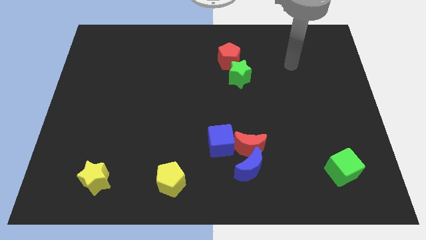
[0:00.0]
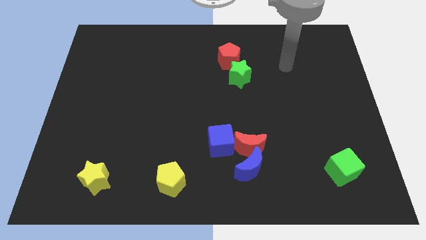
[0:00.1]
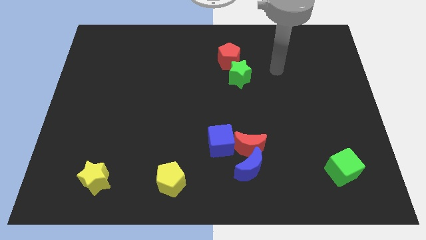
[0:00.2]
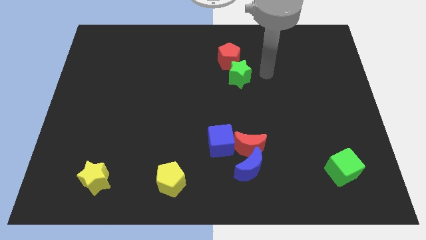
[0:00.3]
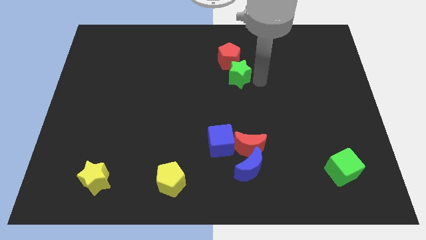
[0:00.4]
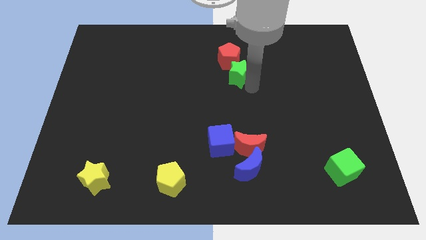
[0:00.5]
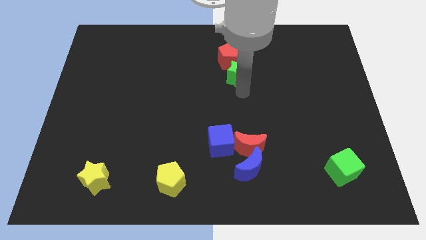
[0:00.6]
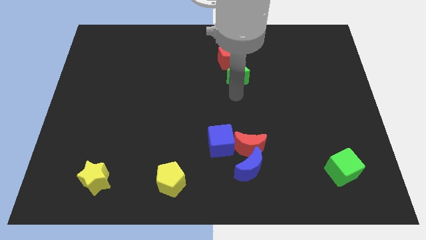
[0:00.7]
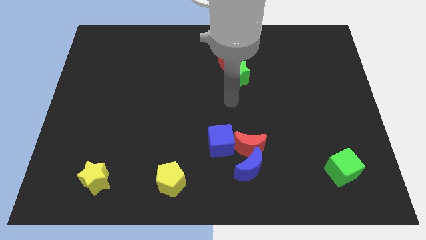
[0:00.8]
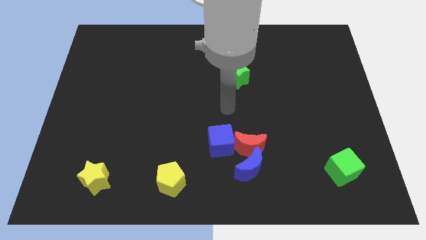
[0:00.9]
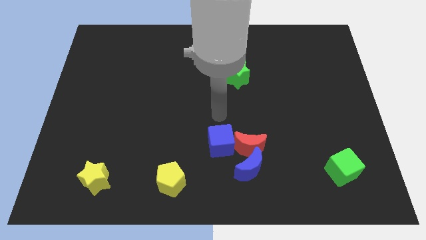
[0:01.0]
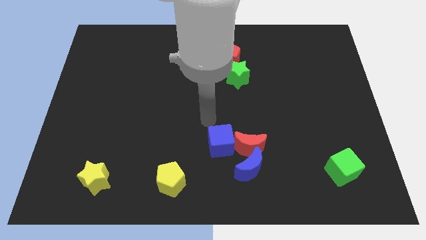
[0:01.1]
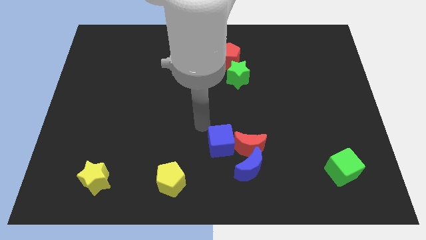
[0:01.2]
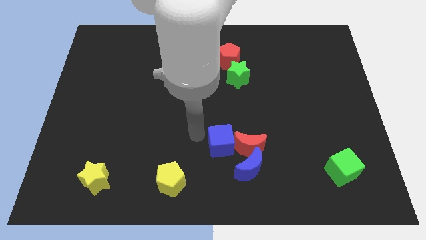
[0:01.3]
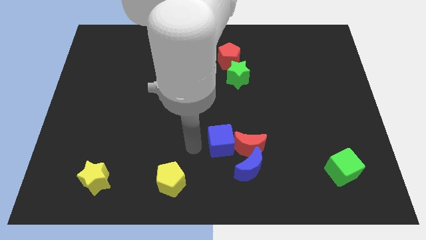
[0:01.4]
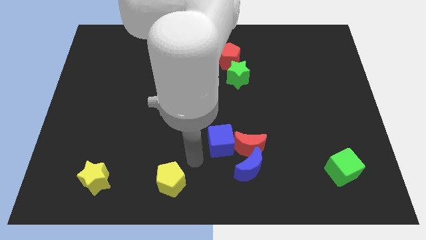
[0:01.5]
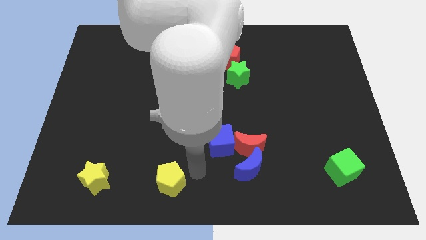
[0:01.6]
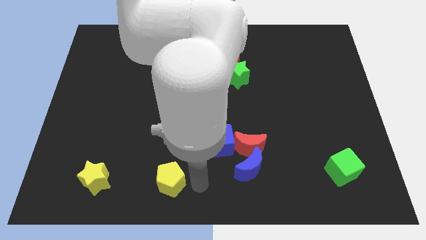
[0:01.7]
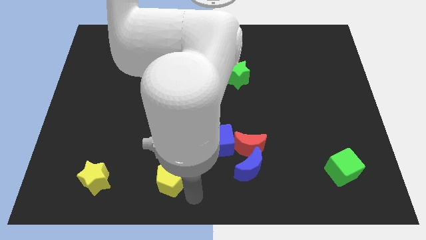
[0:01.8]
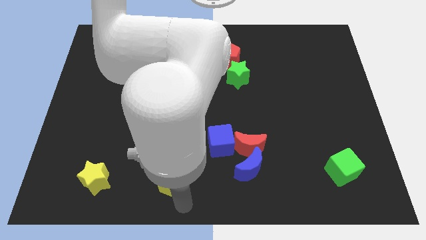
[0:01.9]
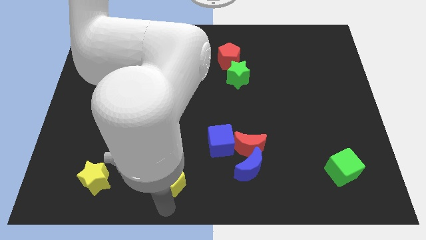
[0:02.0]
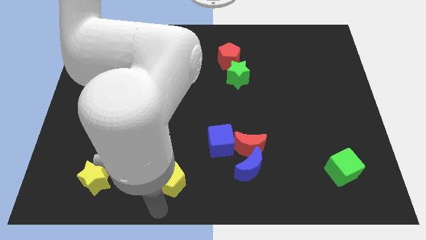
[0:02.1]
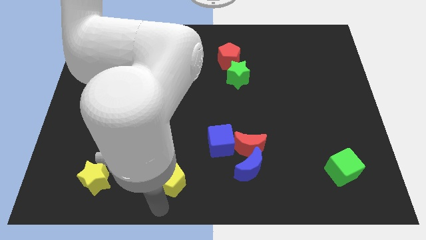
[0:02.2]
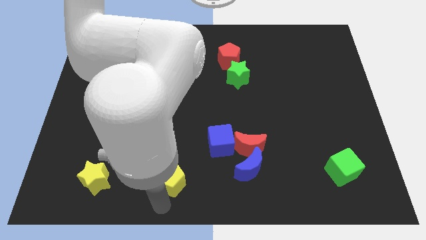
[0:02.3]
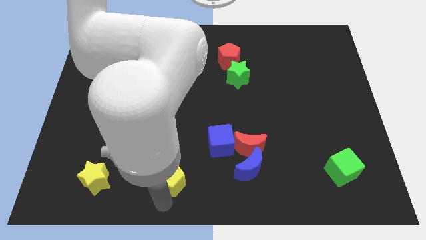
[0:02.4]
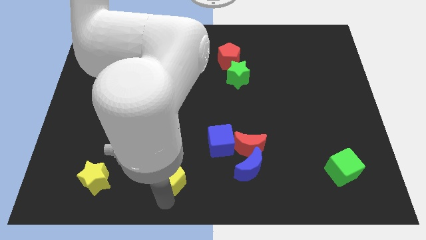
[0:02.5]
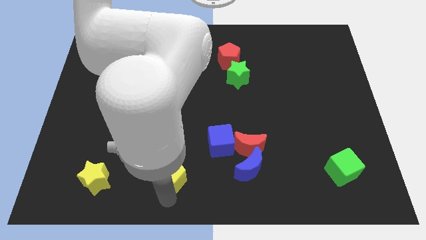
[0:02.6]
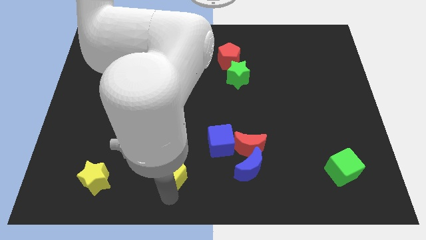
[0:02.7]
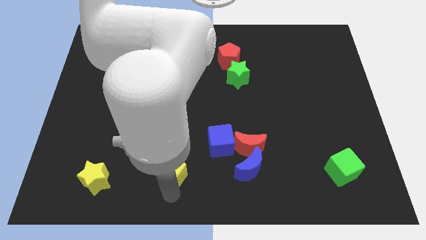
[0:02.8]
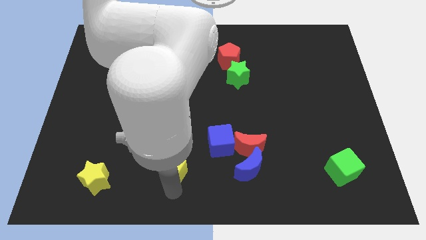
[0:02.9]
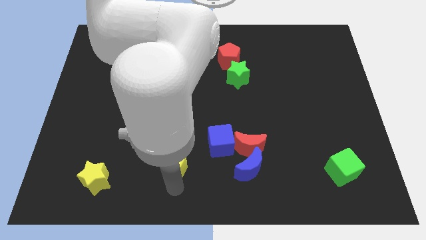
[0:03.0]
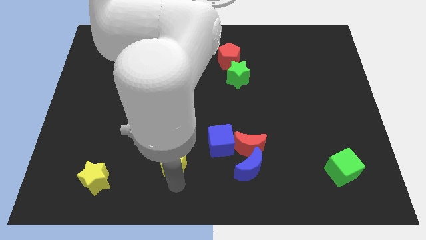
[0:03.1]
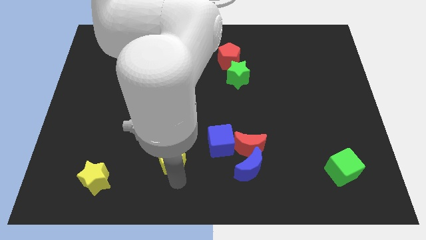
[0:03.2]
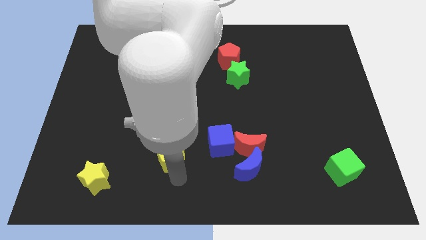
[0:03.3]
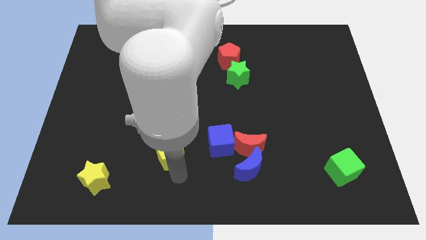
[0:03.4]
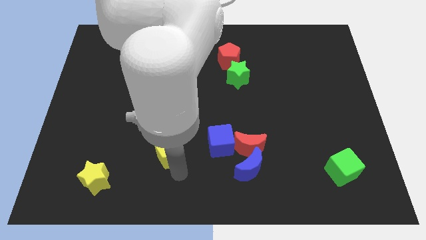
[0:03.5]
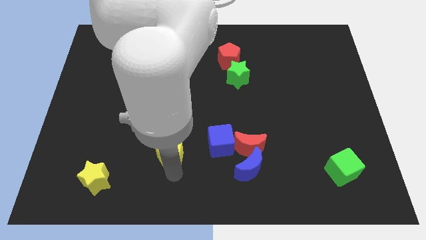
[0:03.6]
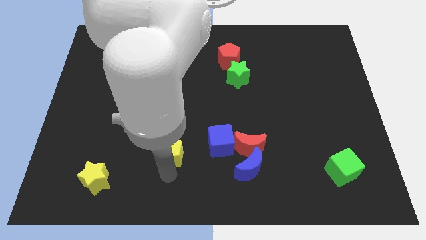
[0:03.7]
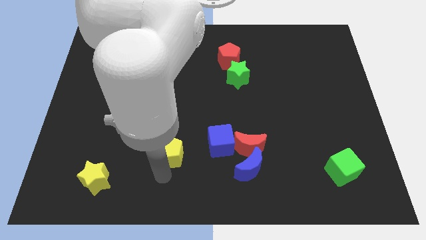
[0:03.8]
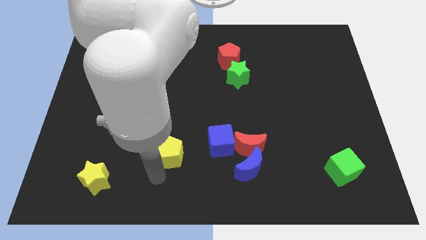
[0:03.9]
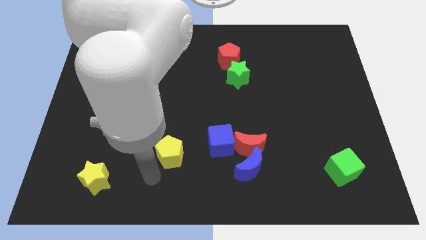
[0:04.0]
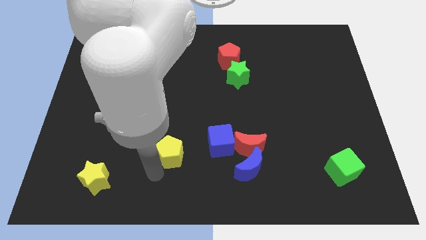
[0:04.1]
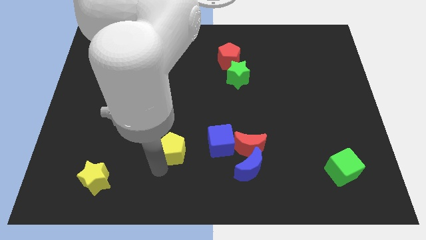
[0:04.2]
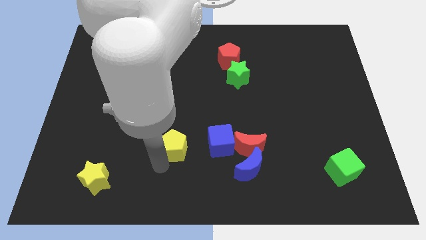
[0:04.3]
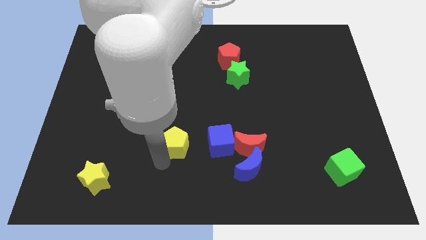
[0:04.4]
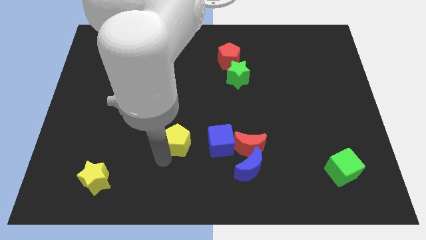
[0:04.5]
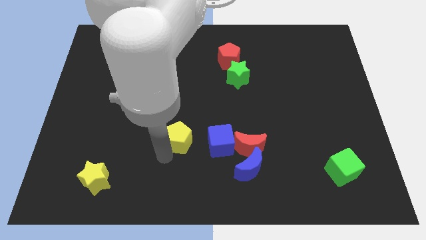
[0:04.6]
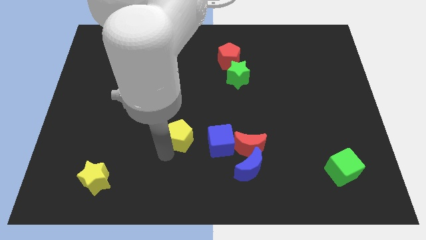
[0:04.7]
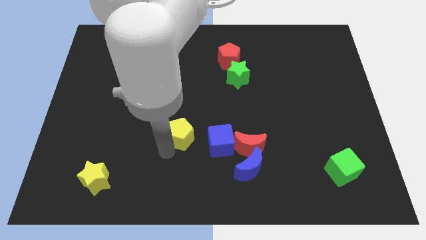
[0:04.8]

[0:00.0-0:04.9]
slide the yellow pentagon slightly up and then right

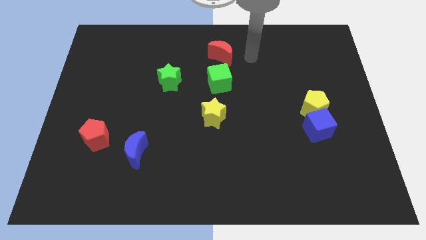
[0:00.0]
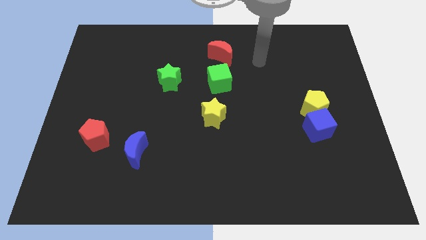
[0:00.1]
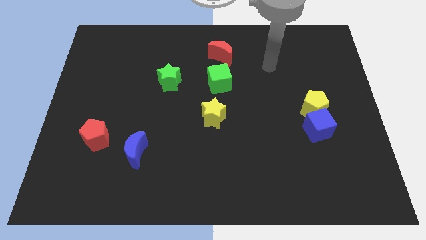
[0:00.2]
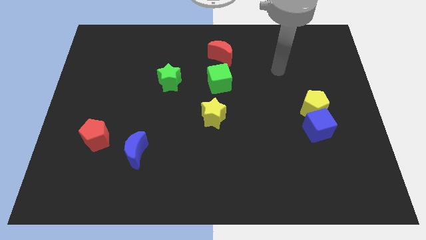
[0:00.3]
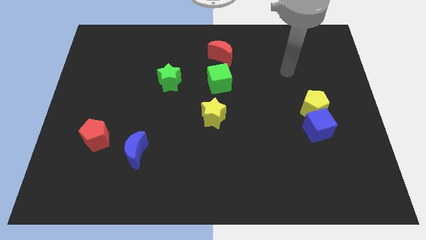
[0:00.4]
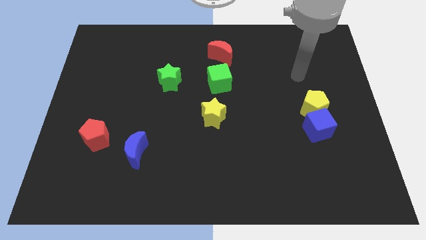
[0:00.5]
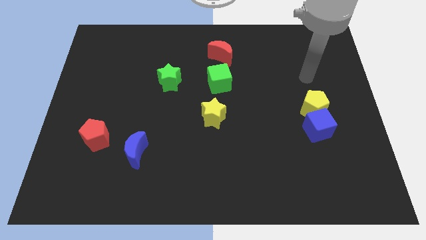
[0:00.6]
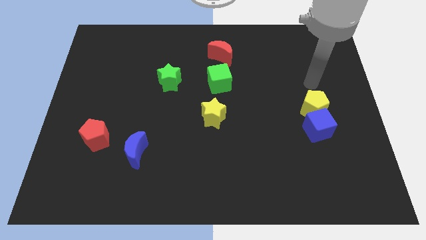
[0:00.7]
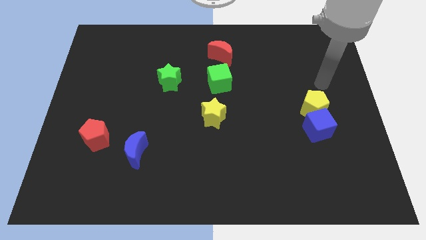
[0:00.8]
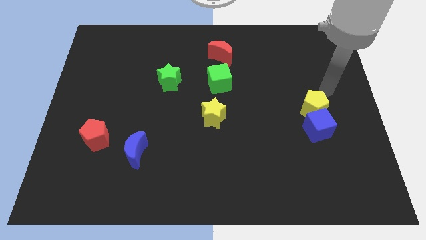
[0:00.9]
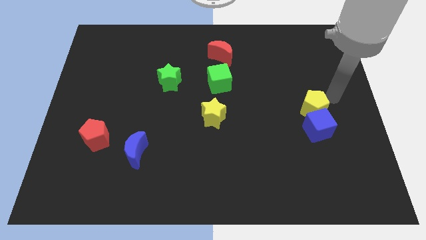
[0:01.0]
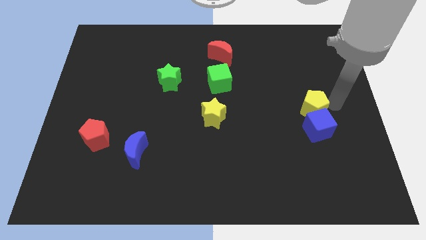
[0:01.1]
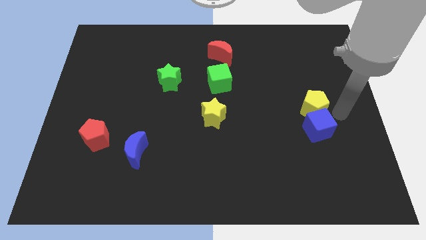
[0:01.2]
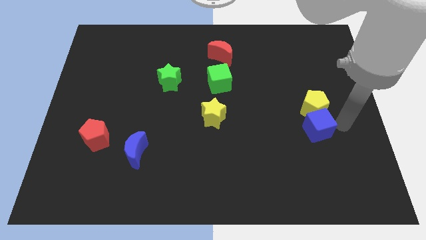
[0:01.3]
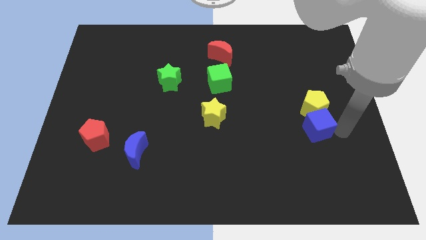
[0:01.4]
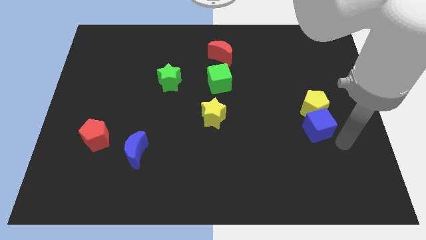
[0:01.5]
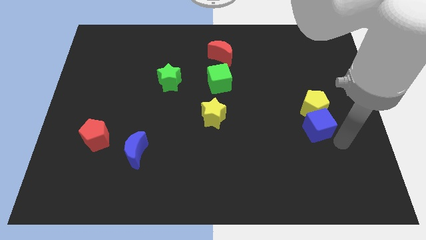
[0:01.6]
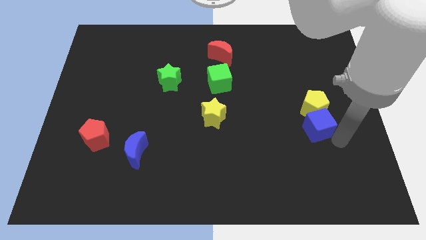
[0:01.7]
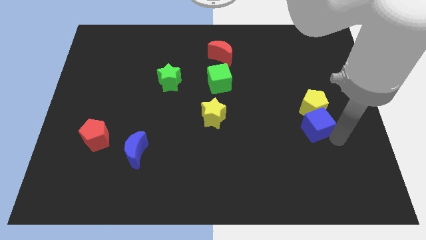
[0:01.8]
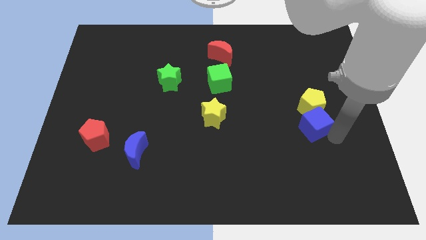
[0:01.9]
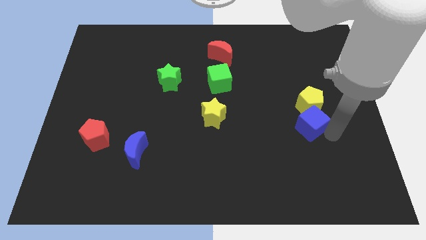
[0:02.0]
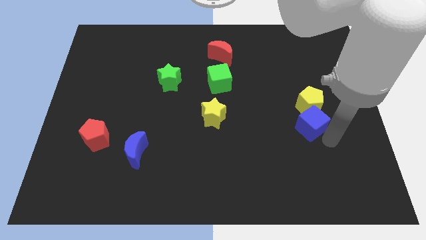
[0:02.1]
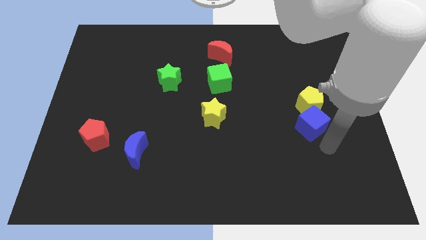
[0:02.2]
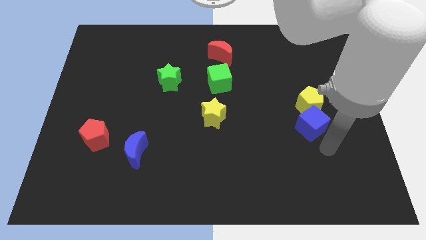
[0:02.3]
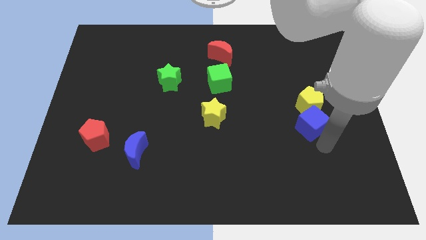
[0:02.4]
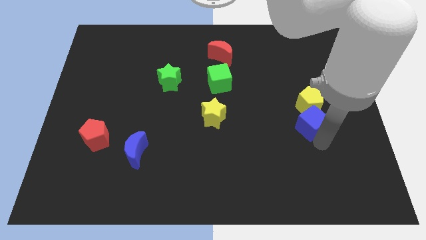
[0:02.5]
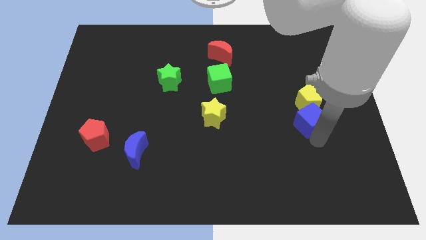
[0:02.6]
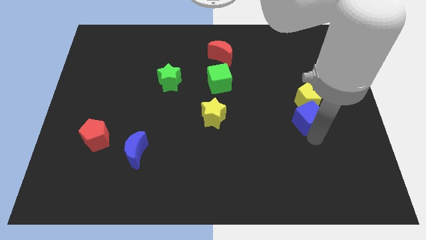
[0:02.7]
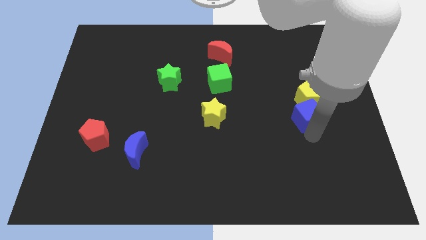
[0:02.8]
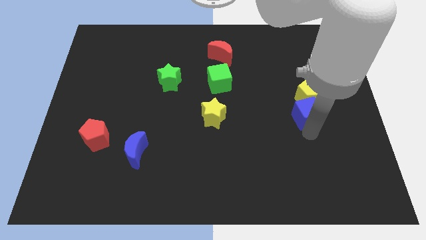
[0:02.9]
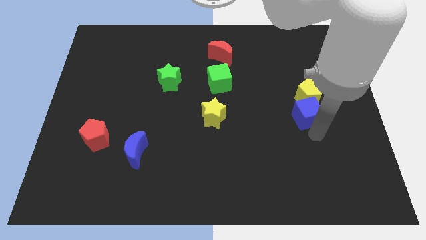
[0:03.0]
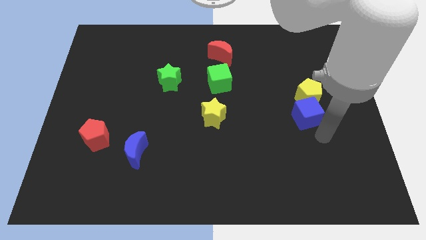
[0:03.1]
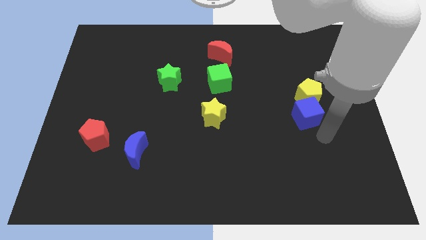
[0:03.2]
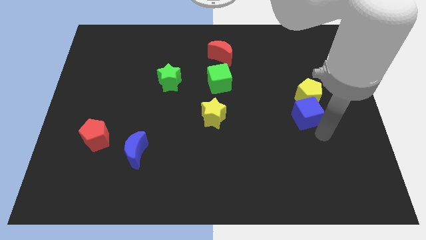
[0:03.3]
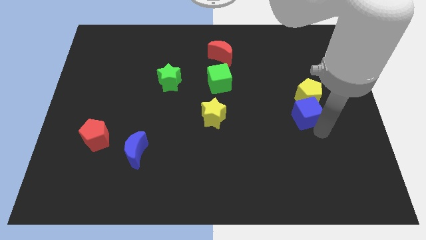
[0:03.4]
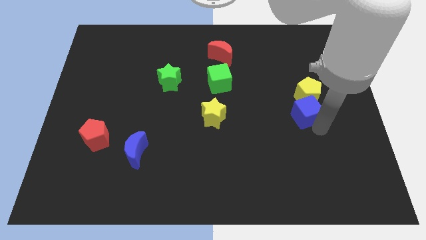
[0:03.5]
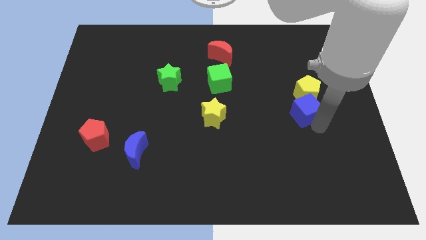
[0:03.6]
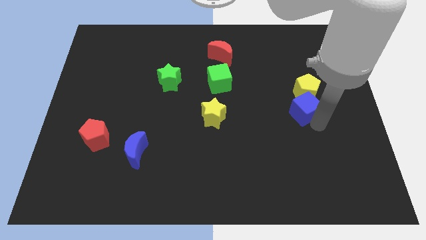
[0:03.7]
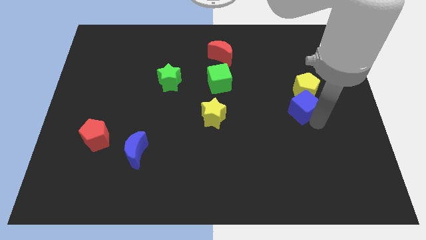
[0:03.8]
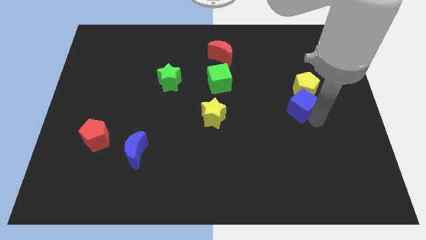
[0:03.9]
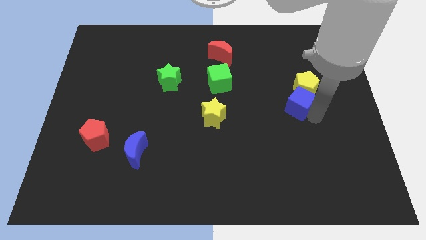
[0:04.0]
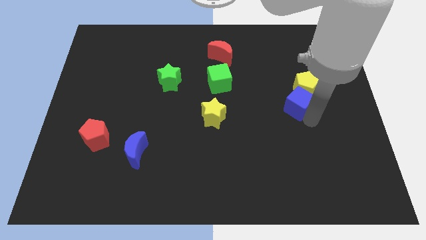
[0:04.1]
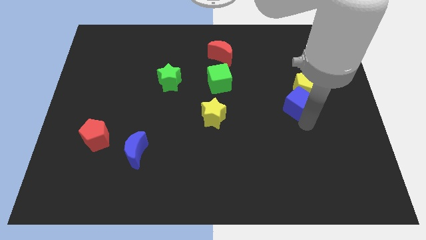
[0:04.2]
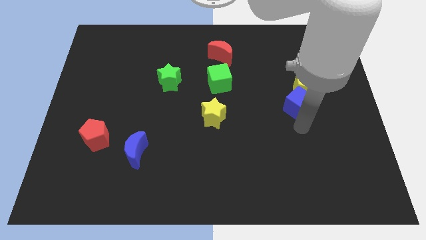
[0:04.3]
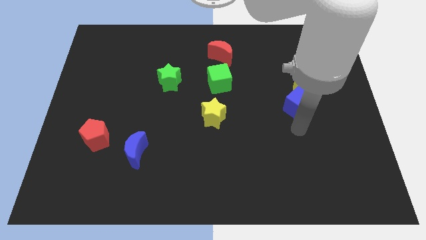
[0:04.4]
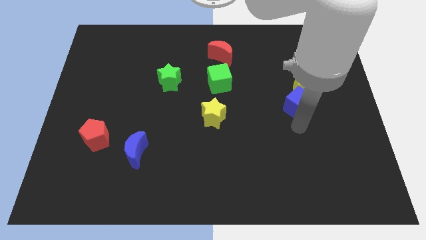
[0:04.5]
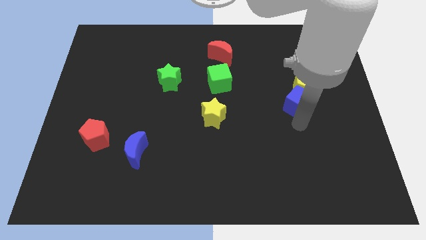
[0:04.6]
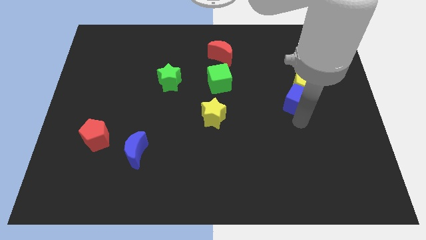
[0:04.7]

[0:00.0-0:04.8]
slide the blue cube upwards a little bit
